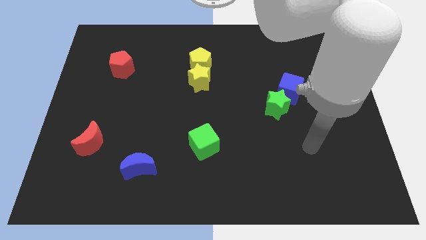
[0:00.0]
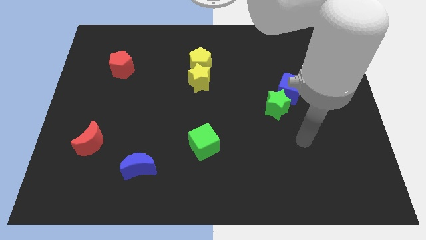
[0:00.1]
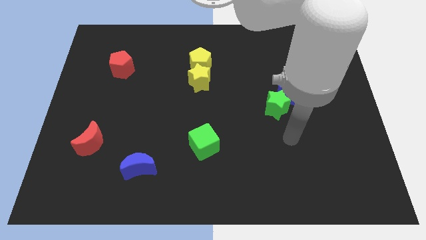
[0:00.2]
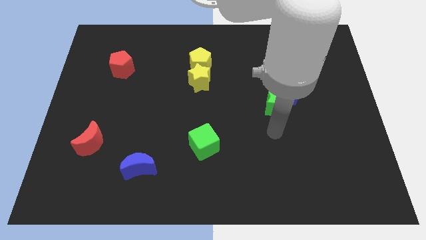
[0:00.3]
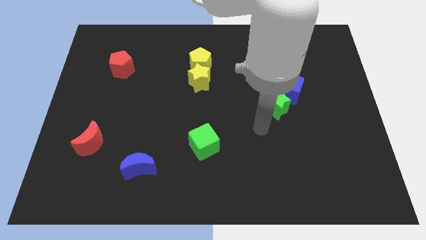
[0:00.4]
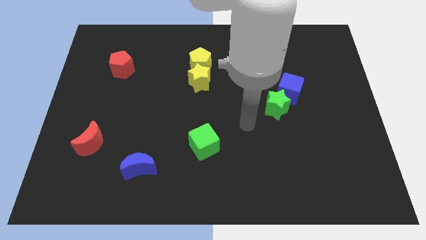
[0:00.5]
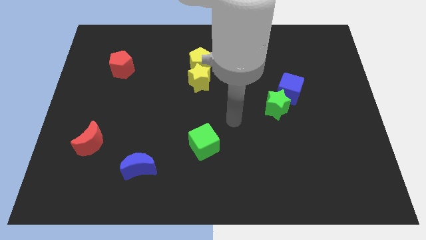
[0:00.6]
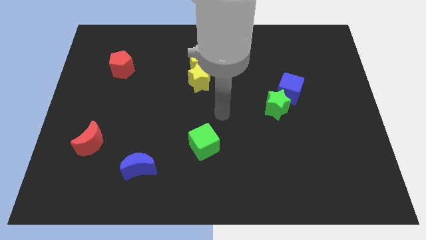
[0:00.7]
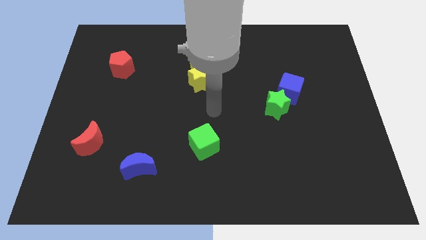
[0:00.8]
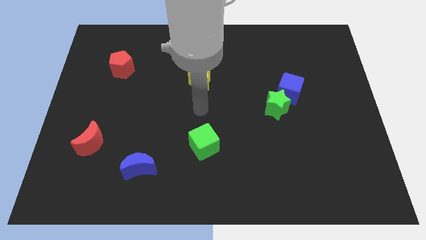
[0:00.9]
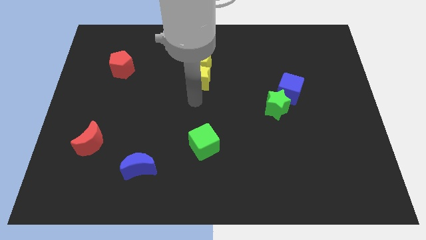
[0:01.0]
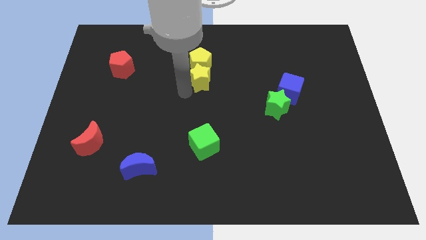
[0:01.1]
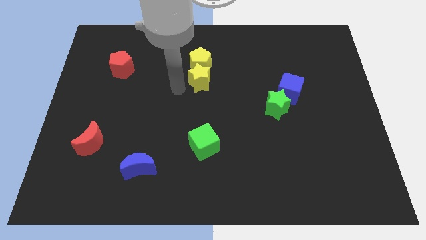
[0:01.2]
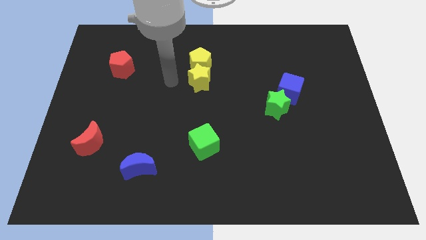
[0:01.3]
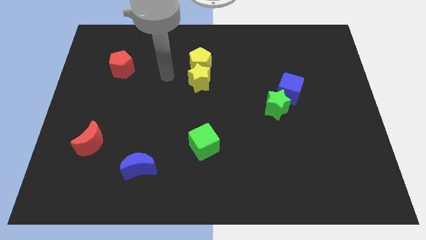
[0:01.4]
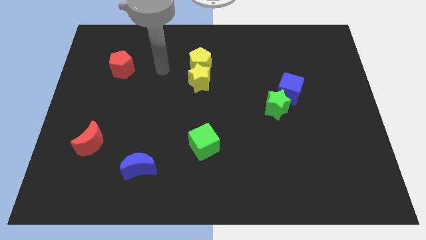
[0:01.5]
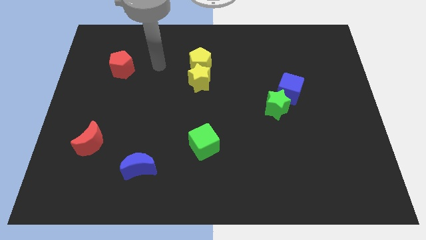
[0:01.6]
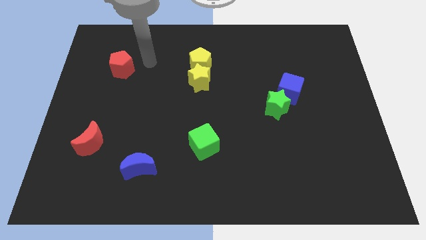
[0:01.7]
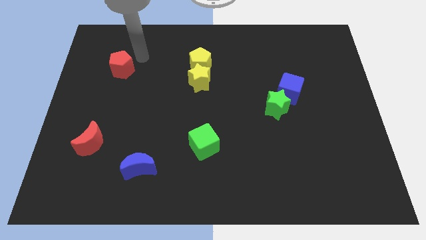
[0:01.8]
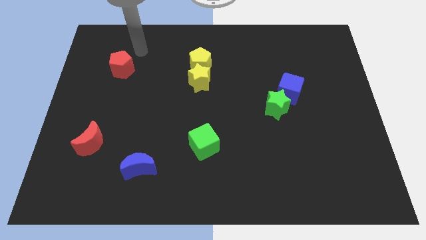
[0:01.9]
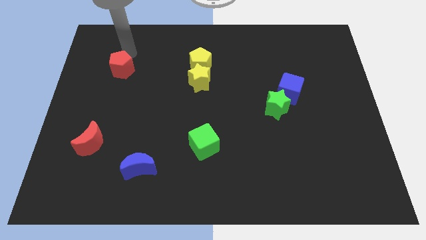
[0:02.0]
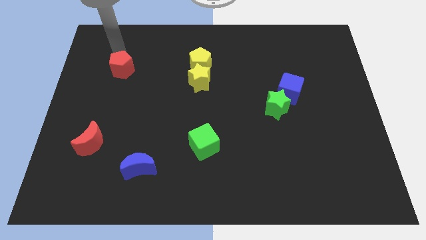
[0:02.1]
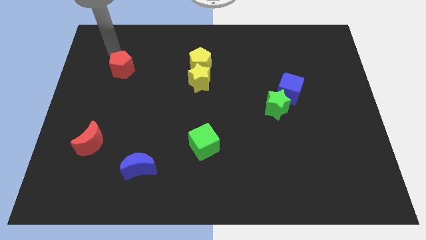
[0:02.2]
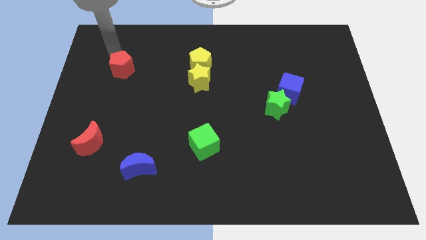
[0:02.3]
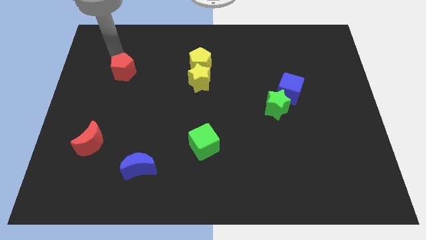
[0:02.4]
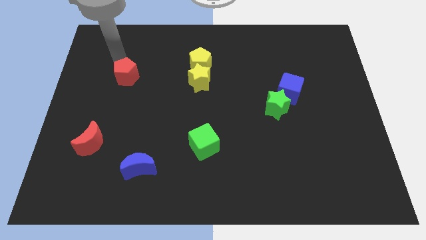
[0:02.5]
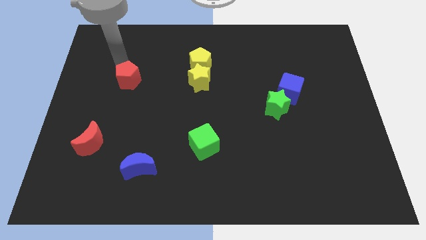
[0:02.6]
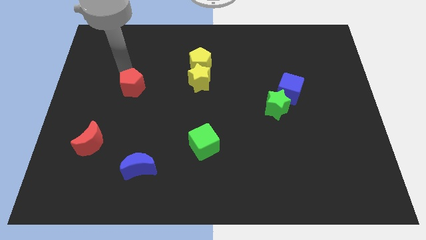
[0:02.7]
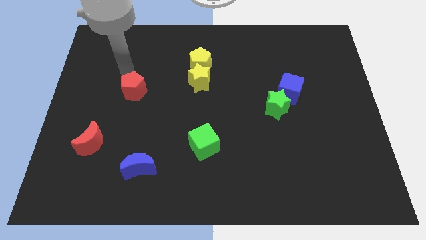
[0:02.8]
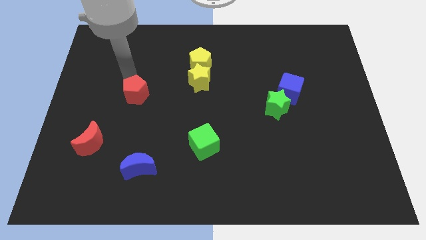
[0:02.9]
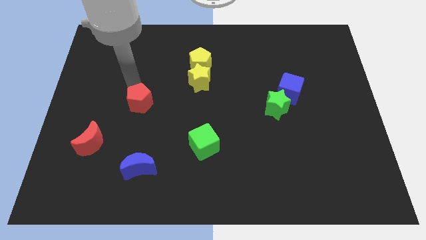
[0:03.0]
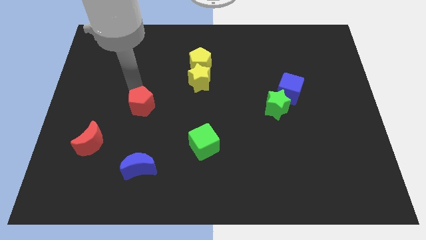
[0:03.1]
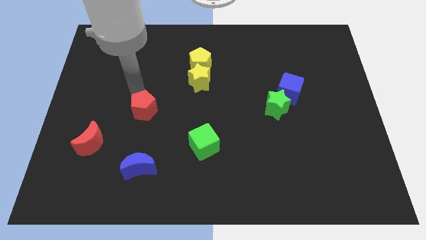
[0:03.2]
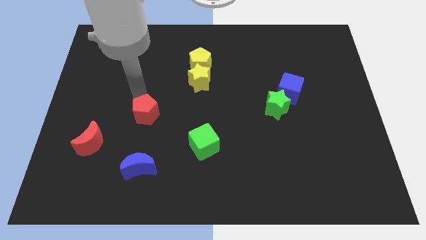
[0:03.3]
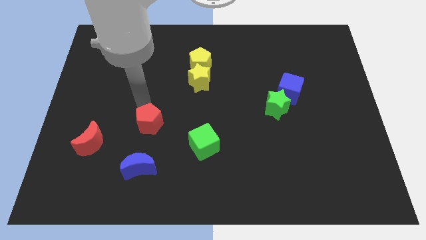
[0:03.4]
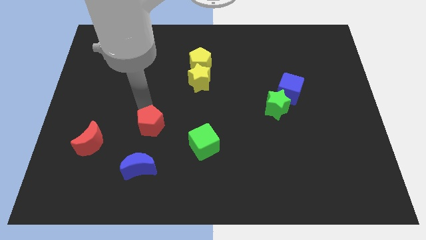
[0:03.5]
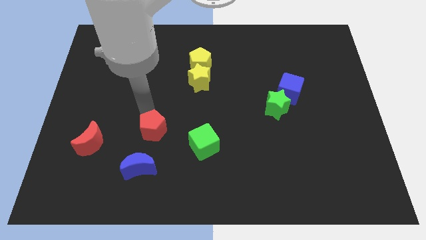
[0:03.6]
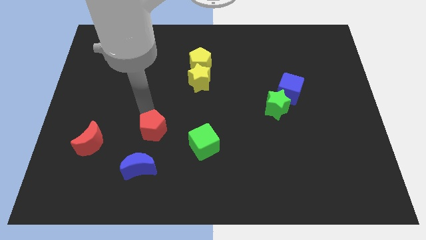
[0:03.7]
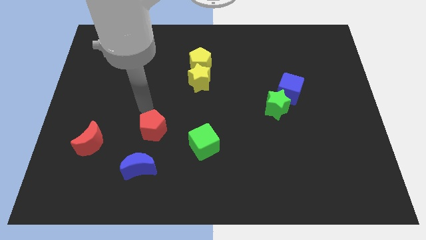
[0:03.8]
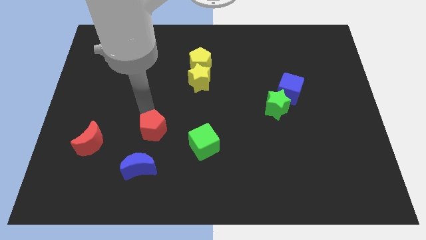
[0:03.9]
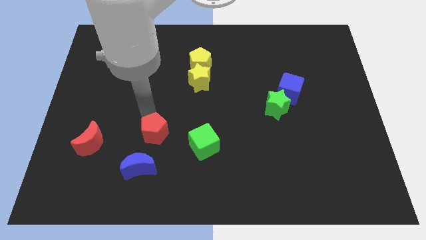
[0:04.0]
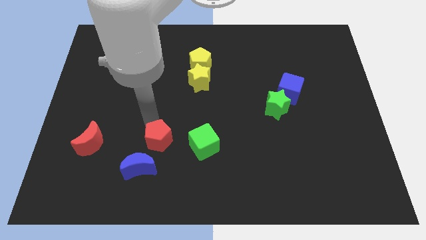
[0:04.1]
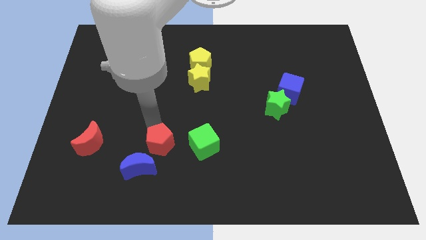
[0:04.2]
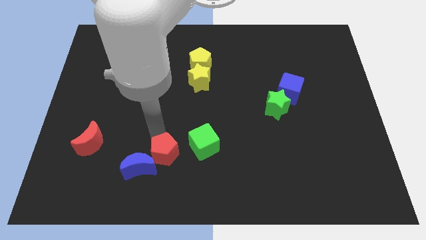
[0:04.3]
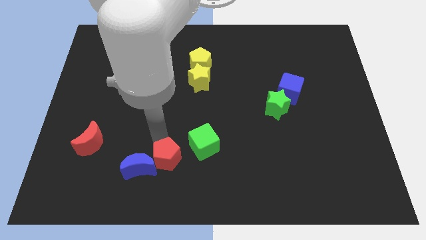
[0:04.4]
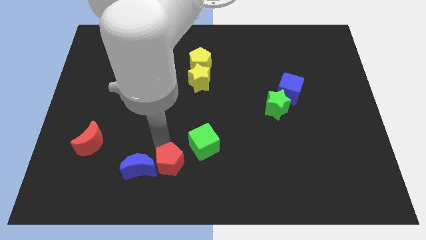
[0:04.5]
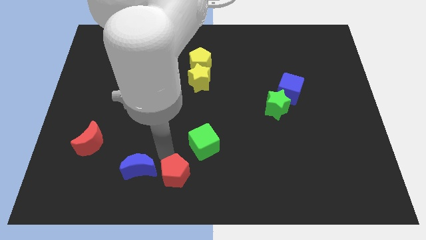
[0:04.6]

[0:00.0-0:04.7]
push the red pentagon to the bottom

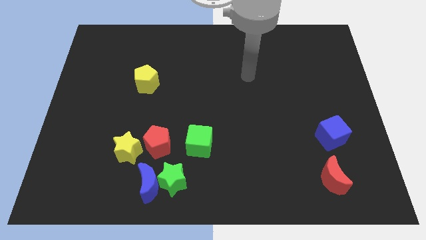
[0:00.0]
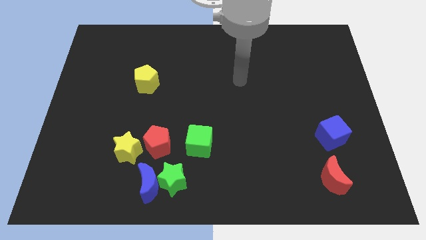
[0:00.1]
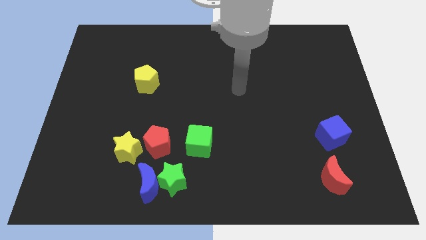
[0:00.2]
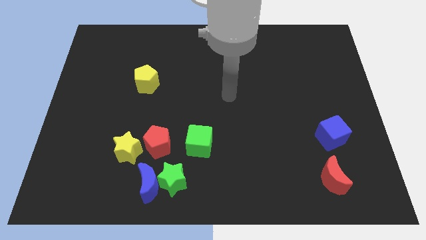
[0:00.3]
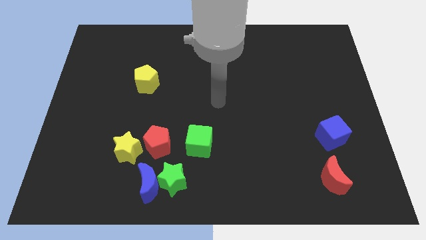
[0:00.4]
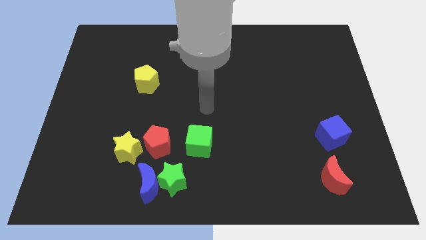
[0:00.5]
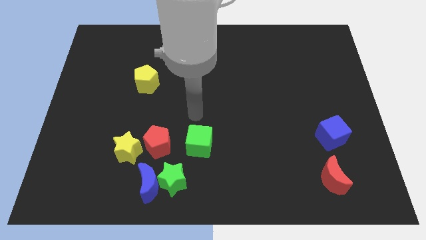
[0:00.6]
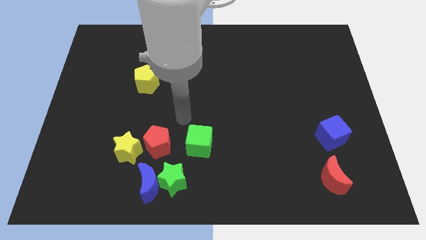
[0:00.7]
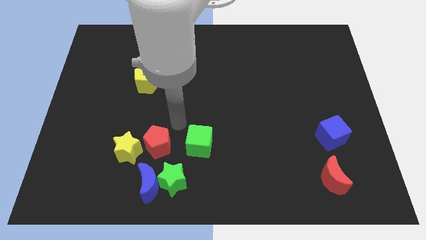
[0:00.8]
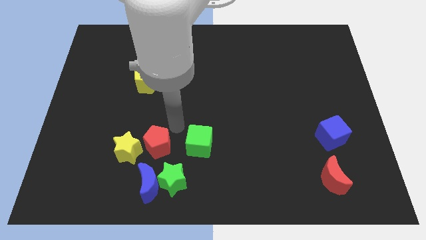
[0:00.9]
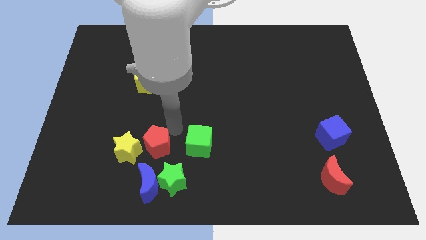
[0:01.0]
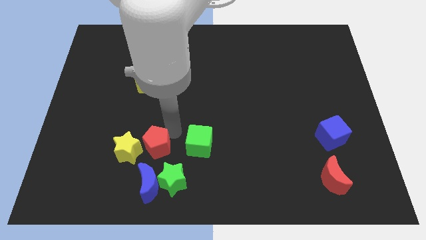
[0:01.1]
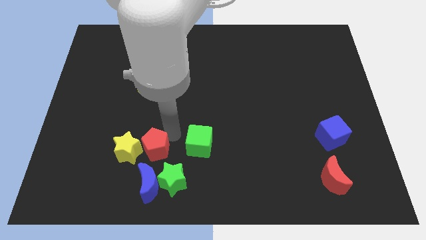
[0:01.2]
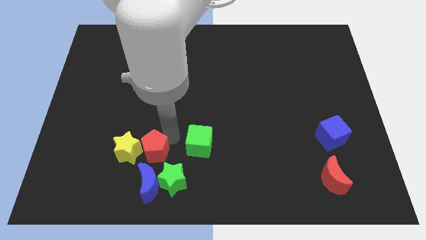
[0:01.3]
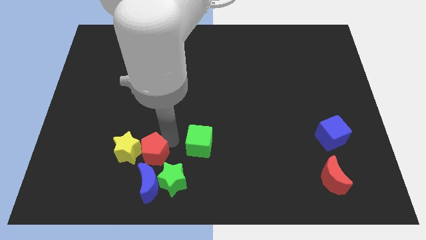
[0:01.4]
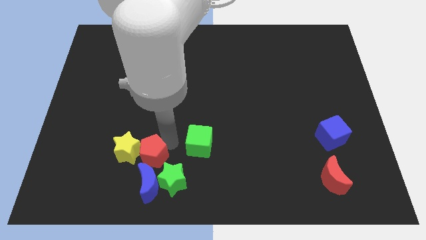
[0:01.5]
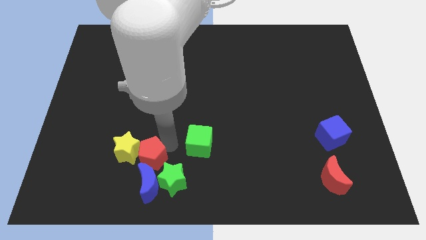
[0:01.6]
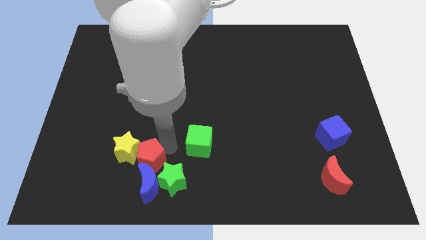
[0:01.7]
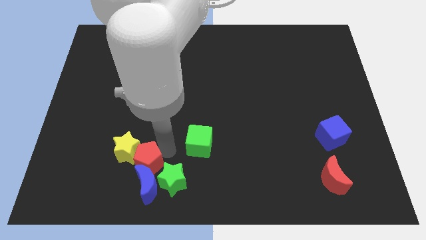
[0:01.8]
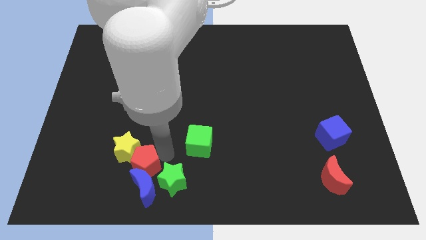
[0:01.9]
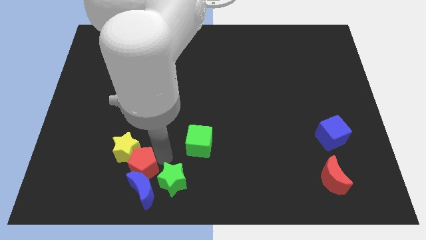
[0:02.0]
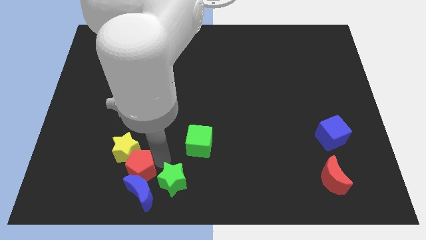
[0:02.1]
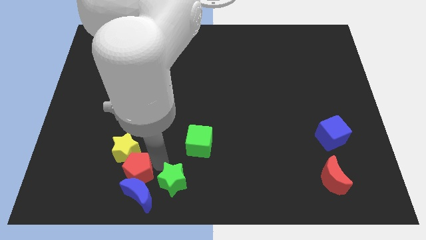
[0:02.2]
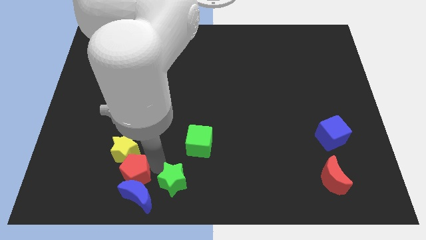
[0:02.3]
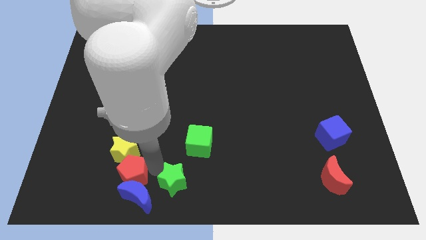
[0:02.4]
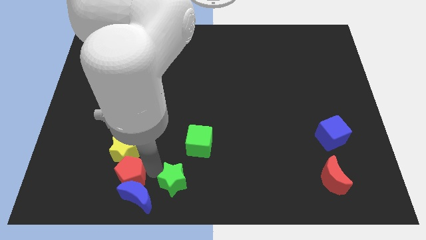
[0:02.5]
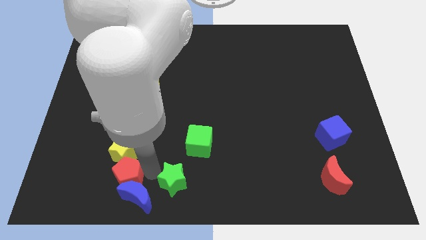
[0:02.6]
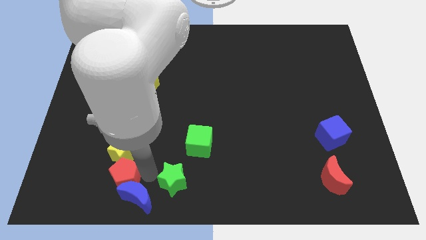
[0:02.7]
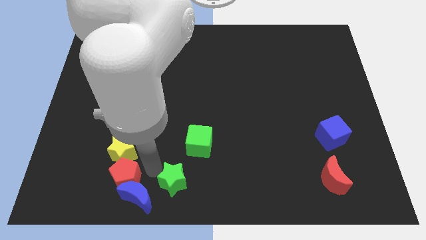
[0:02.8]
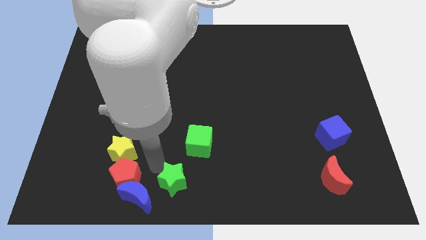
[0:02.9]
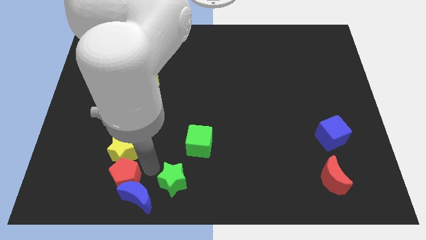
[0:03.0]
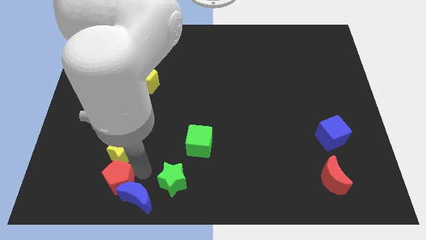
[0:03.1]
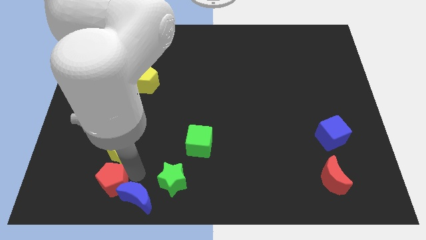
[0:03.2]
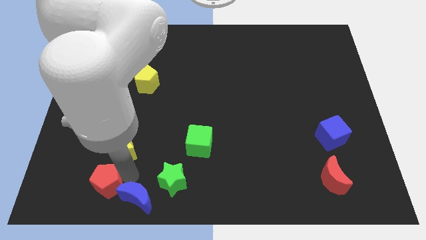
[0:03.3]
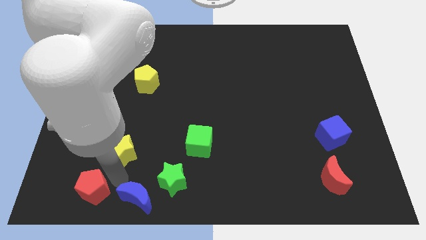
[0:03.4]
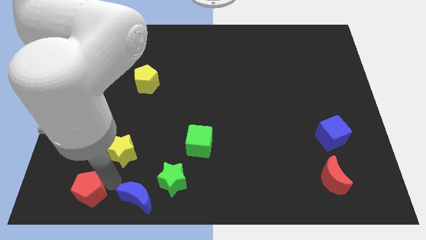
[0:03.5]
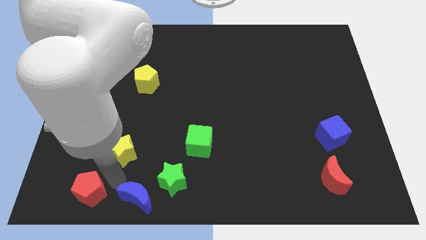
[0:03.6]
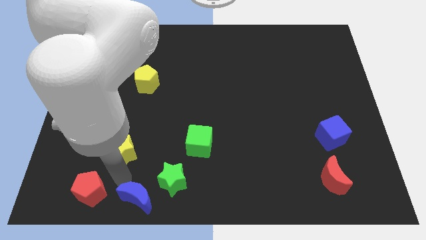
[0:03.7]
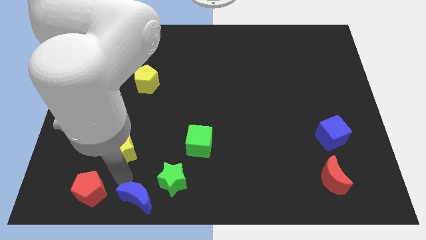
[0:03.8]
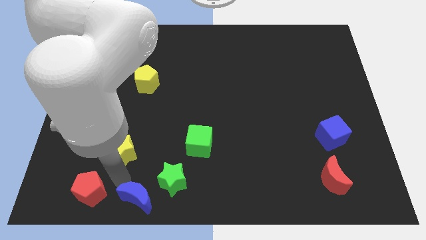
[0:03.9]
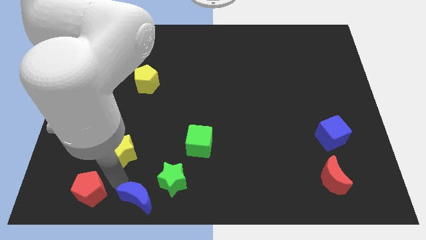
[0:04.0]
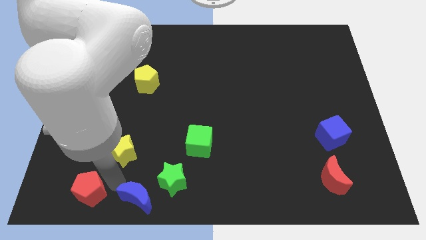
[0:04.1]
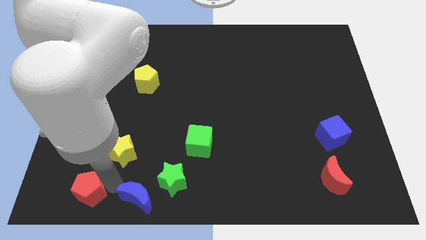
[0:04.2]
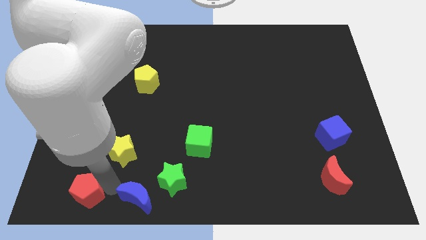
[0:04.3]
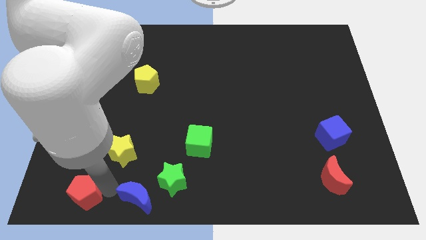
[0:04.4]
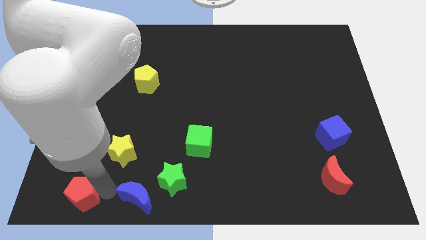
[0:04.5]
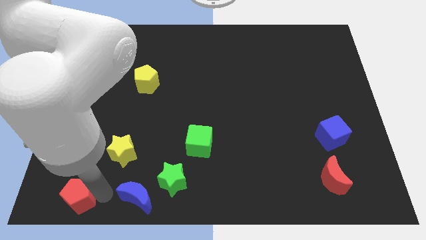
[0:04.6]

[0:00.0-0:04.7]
slide the red pentagon to the bottom left
